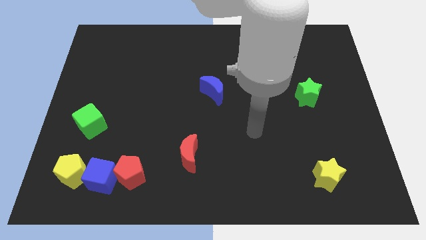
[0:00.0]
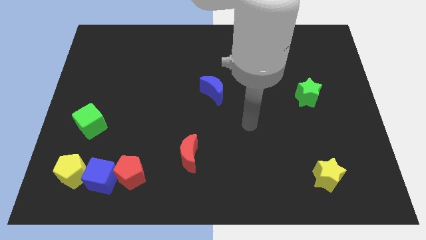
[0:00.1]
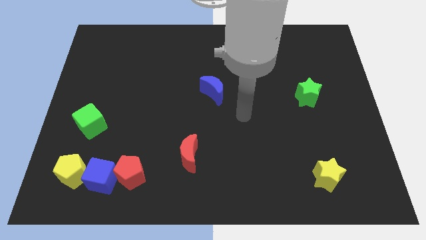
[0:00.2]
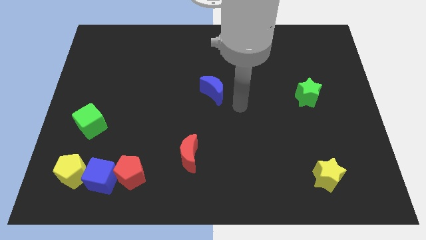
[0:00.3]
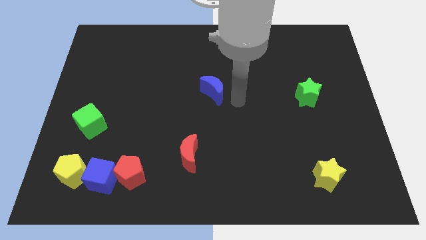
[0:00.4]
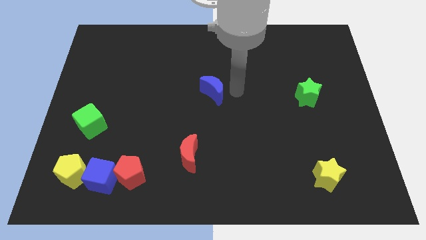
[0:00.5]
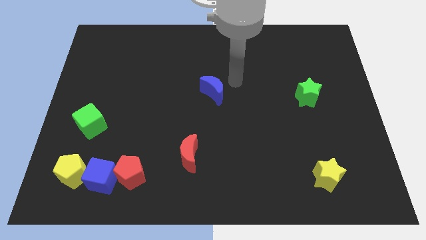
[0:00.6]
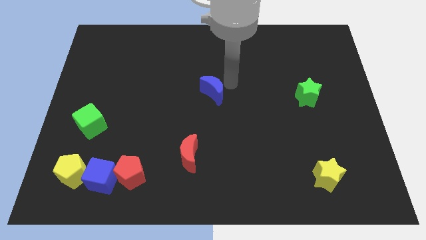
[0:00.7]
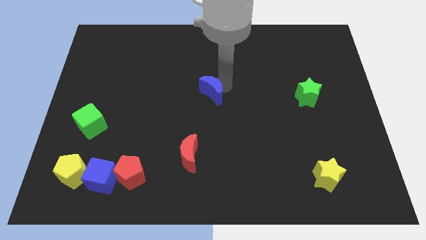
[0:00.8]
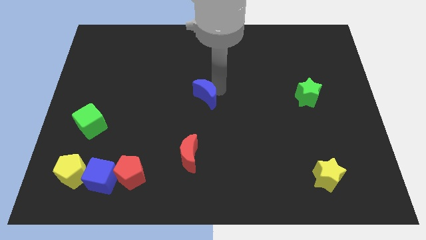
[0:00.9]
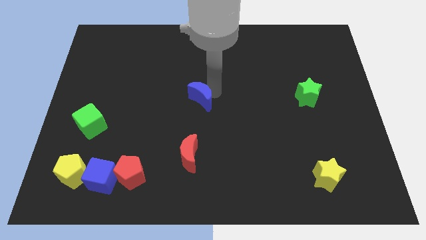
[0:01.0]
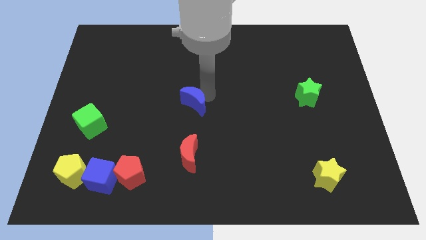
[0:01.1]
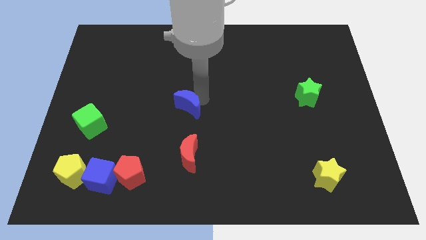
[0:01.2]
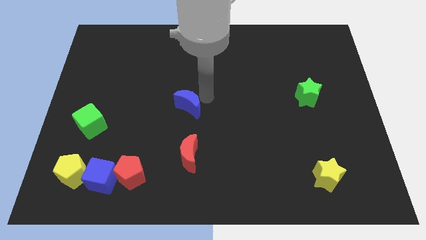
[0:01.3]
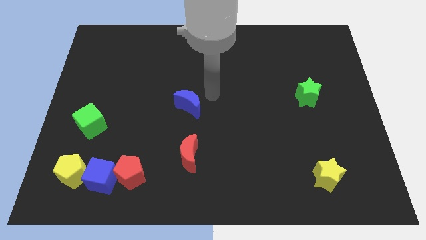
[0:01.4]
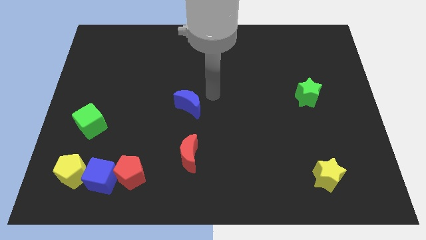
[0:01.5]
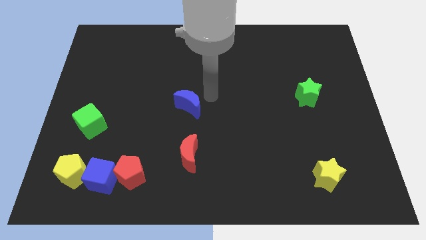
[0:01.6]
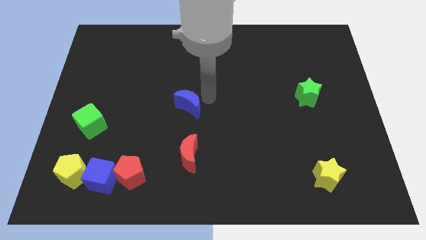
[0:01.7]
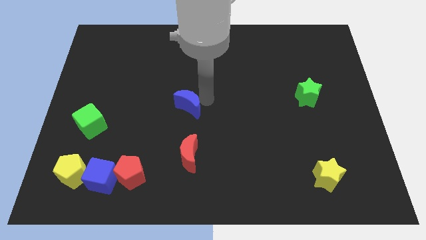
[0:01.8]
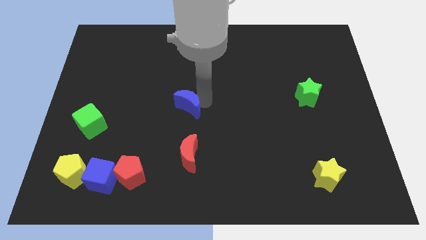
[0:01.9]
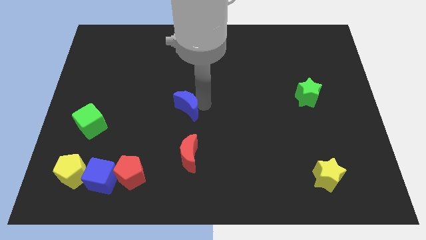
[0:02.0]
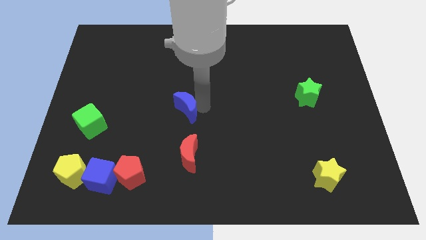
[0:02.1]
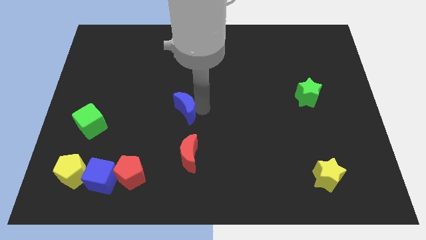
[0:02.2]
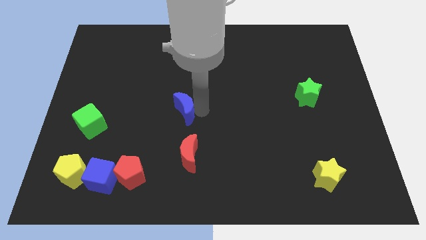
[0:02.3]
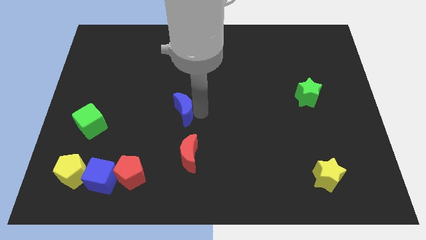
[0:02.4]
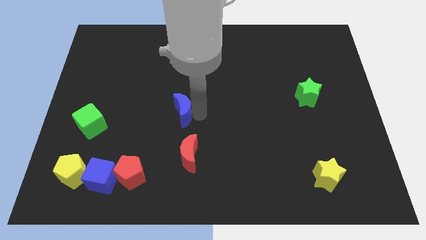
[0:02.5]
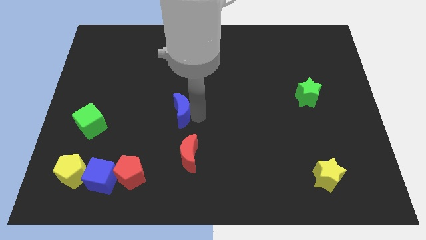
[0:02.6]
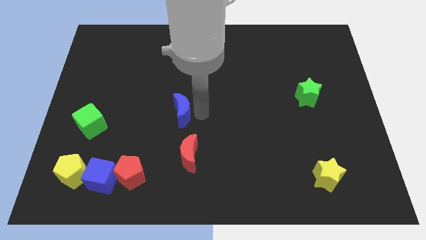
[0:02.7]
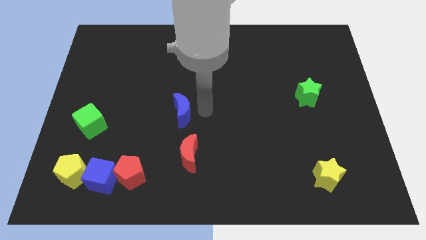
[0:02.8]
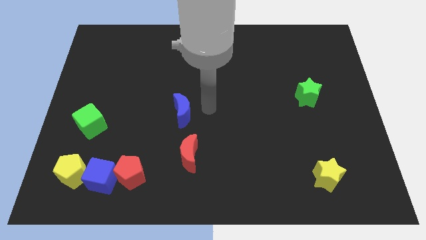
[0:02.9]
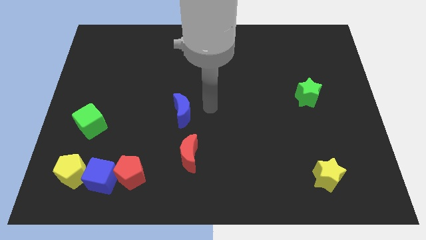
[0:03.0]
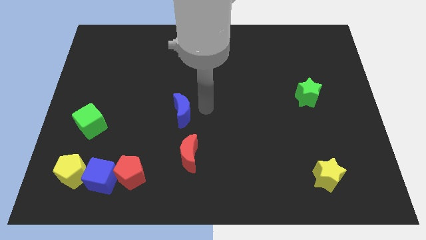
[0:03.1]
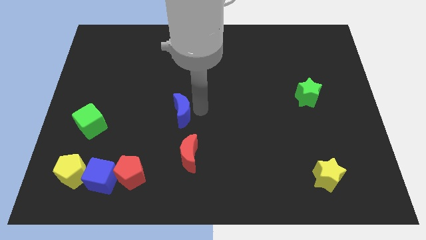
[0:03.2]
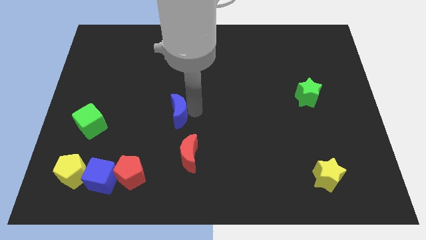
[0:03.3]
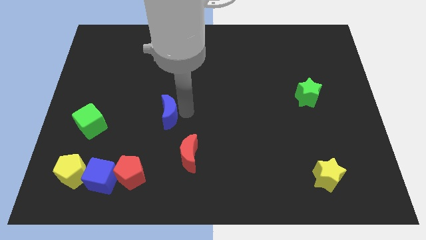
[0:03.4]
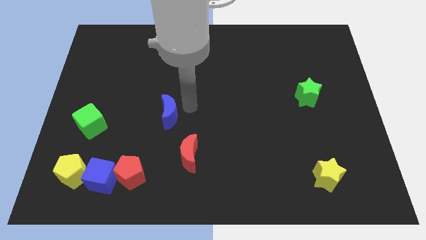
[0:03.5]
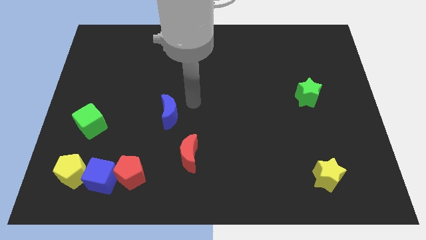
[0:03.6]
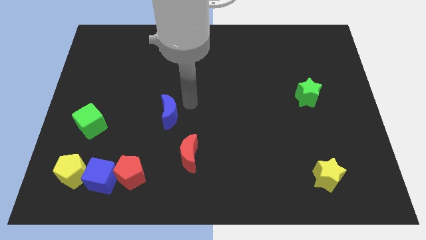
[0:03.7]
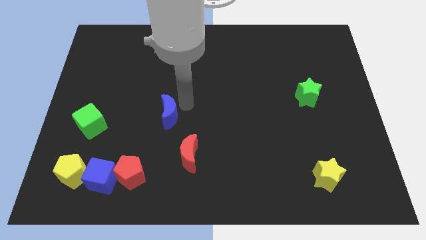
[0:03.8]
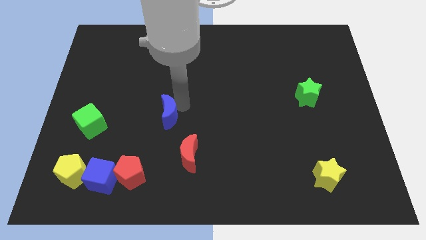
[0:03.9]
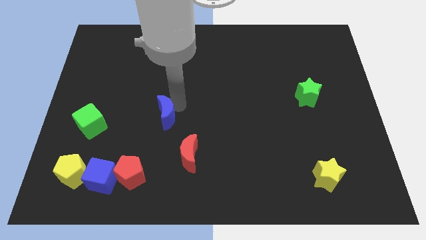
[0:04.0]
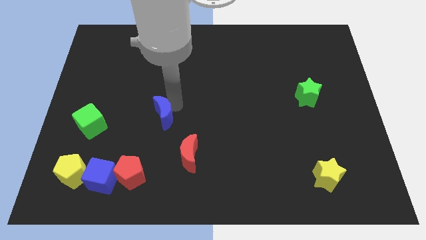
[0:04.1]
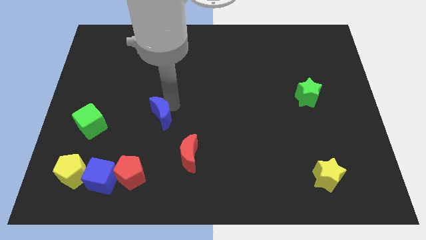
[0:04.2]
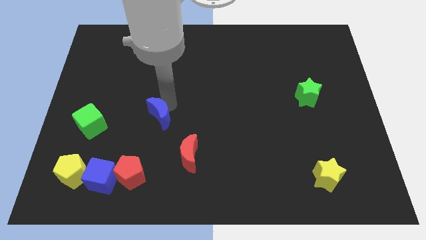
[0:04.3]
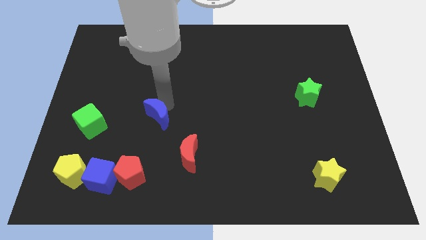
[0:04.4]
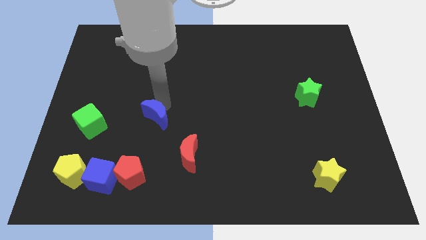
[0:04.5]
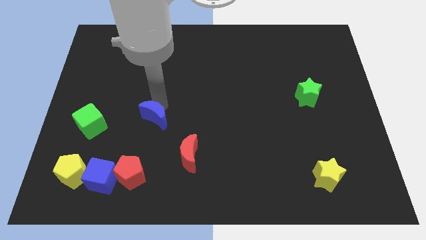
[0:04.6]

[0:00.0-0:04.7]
put the blue moon to the top of the red pentagon

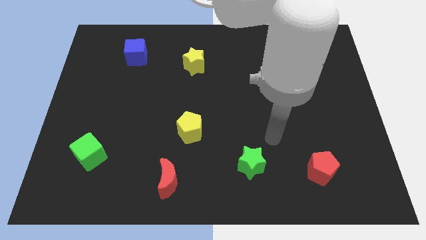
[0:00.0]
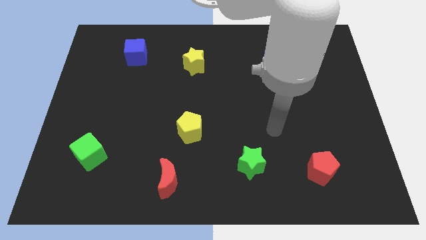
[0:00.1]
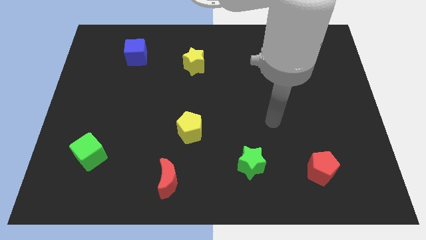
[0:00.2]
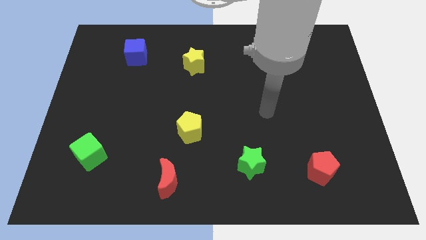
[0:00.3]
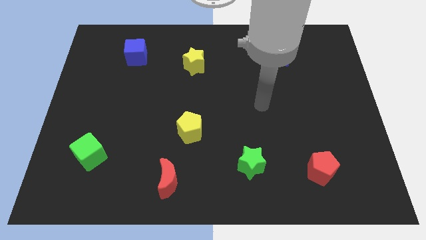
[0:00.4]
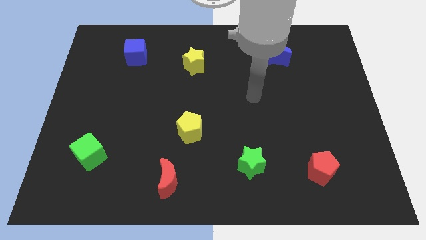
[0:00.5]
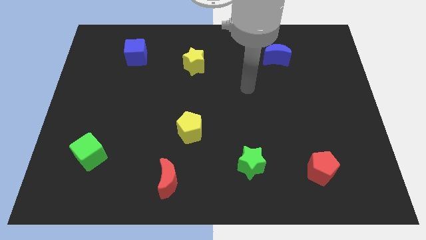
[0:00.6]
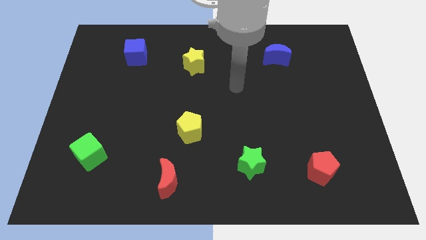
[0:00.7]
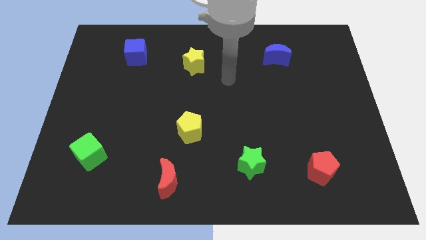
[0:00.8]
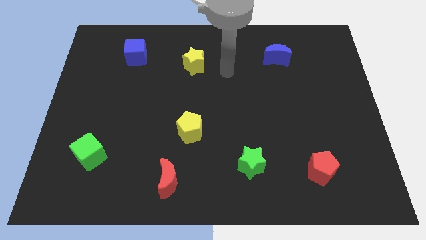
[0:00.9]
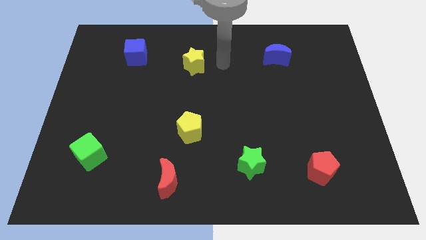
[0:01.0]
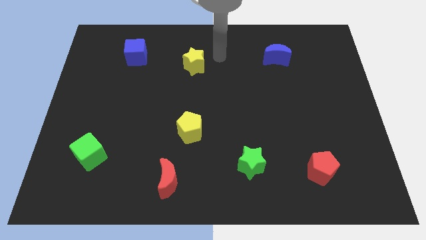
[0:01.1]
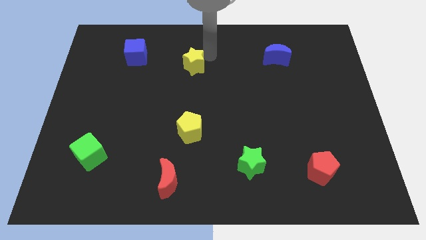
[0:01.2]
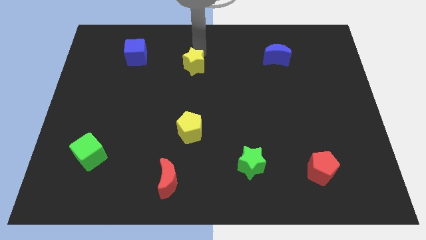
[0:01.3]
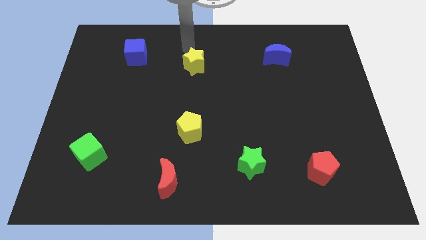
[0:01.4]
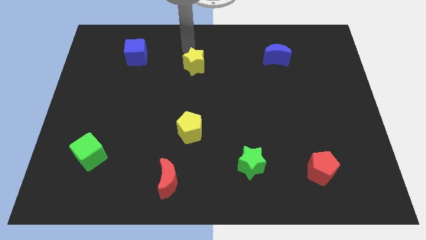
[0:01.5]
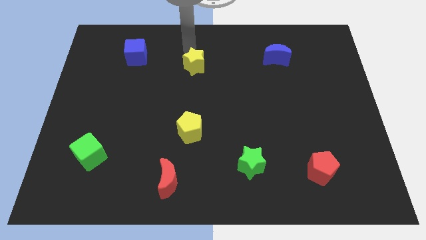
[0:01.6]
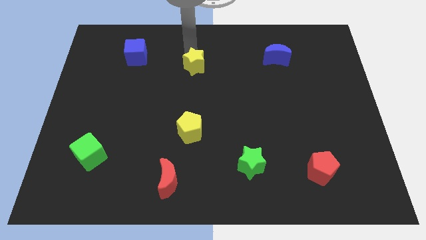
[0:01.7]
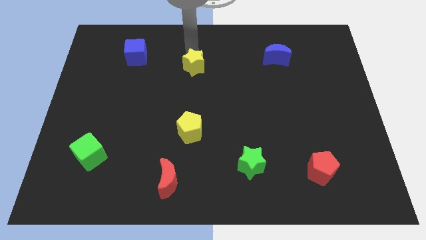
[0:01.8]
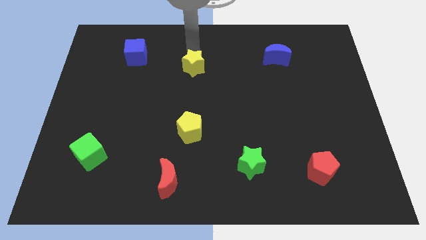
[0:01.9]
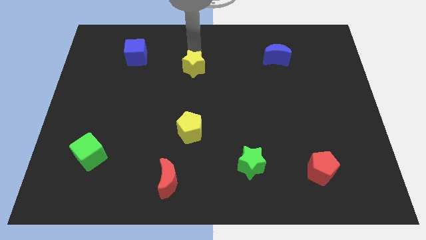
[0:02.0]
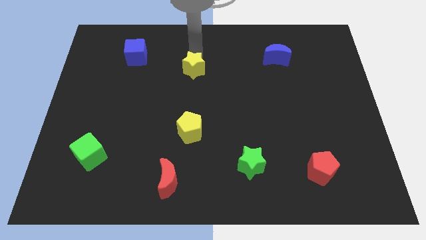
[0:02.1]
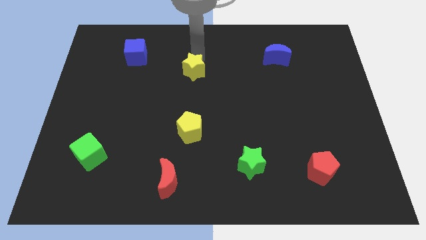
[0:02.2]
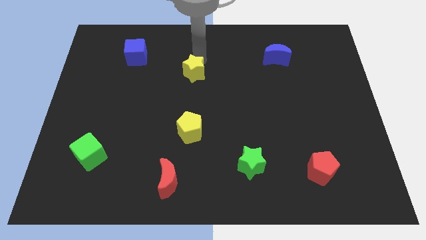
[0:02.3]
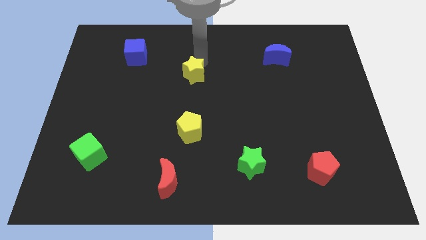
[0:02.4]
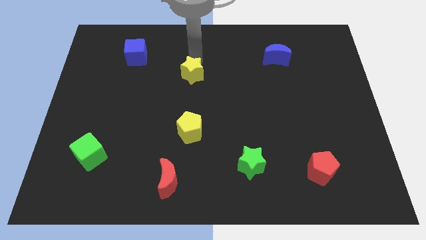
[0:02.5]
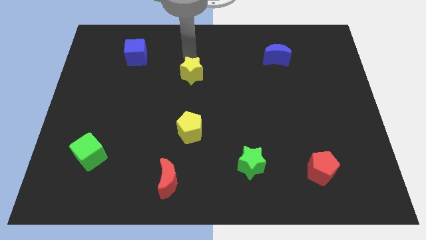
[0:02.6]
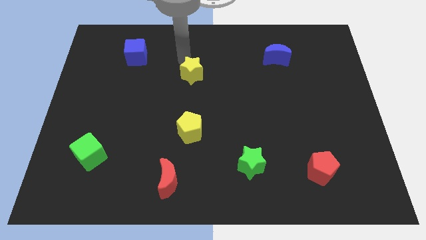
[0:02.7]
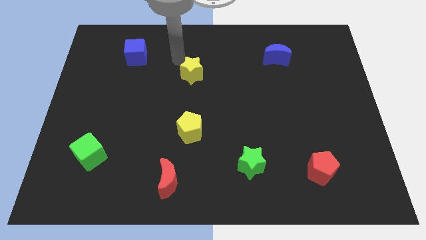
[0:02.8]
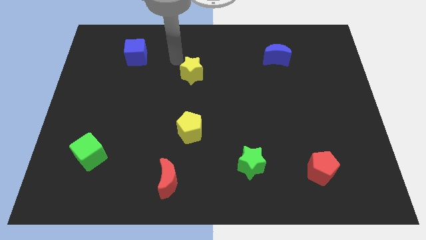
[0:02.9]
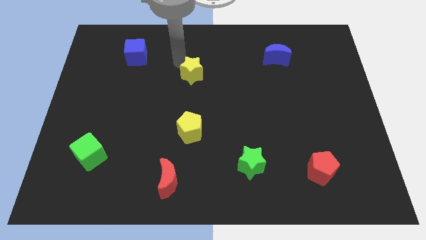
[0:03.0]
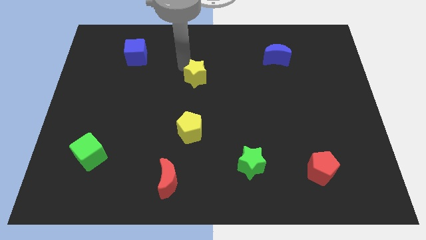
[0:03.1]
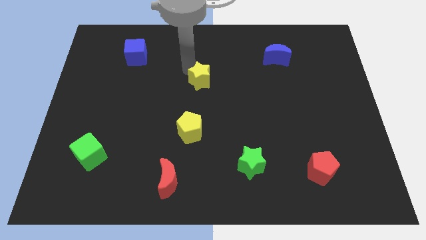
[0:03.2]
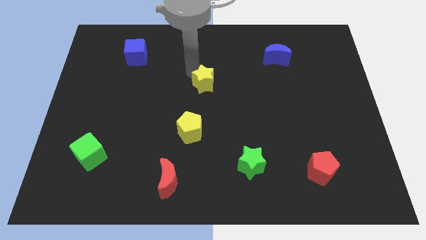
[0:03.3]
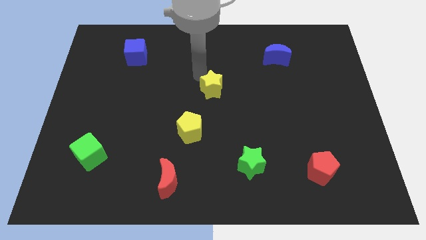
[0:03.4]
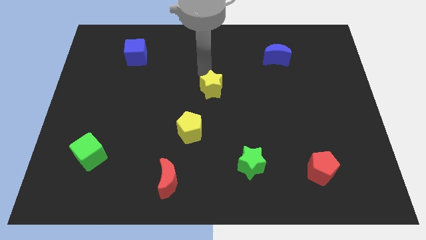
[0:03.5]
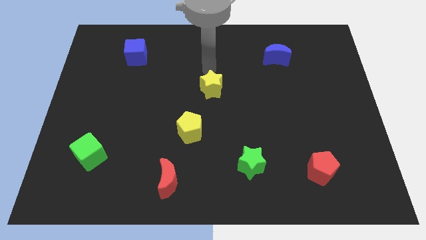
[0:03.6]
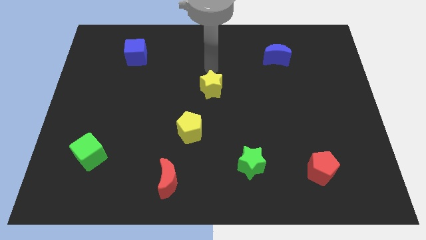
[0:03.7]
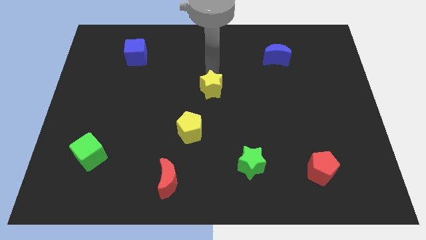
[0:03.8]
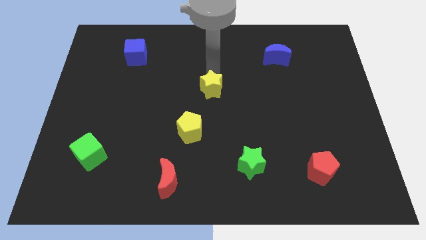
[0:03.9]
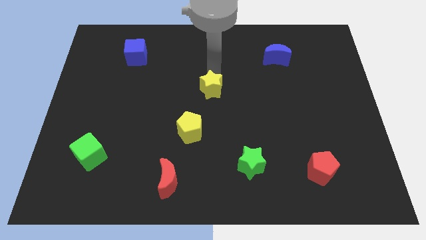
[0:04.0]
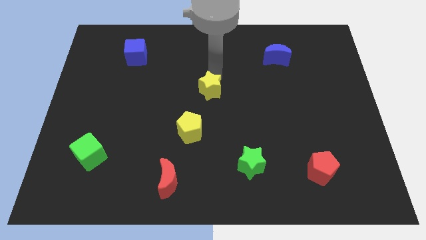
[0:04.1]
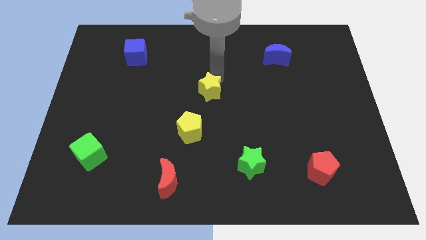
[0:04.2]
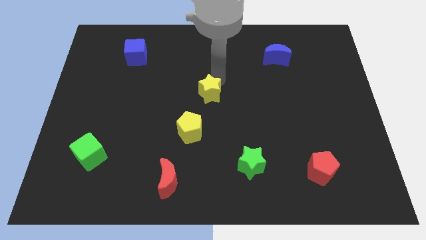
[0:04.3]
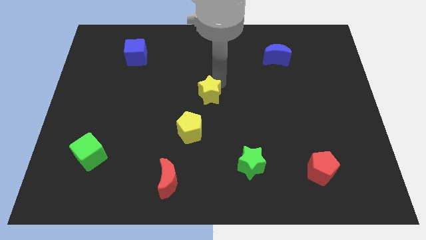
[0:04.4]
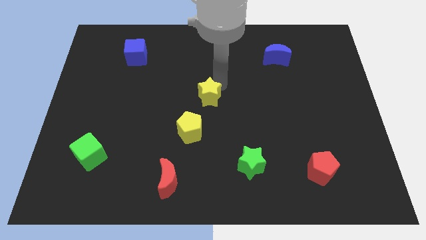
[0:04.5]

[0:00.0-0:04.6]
put the yellow star to the top right of the yellow pentagon
